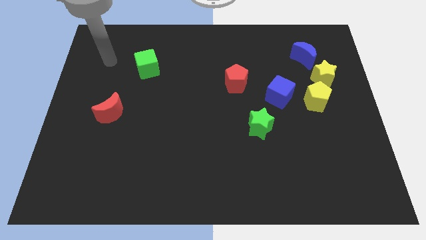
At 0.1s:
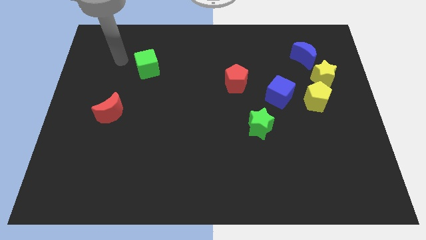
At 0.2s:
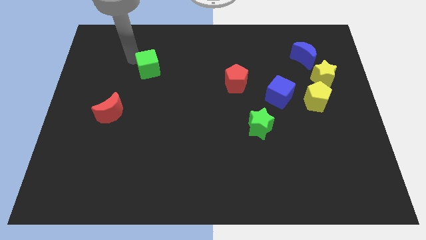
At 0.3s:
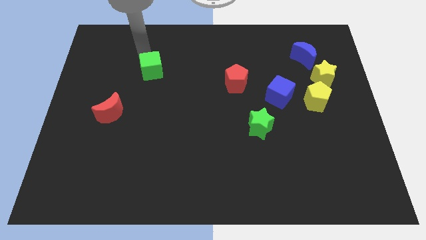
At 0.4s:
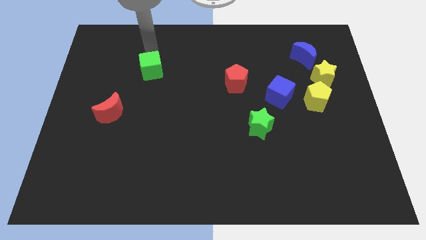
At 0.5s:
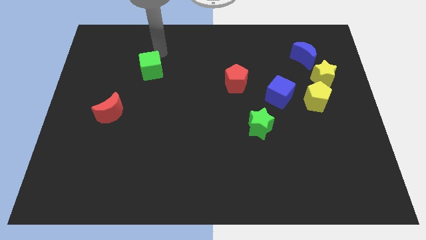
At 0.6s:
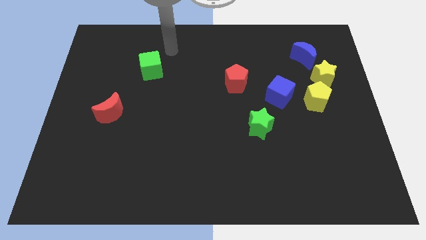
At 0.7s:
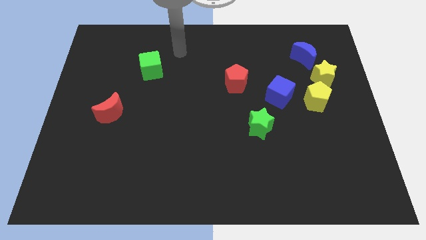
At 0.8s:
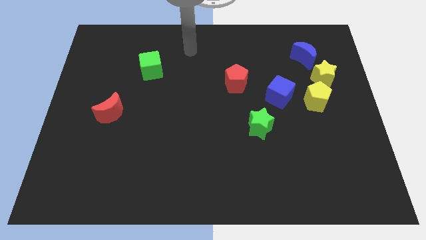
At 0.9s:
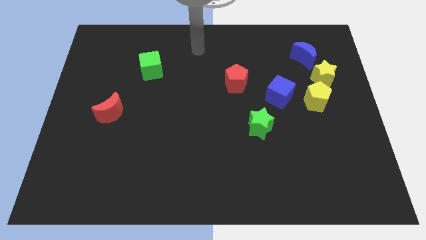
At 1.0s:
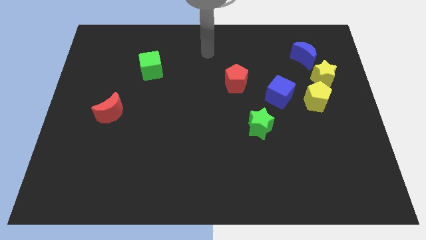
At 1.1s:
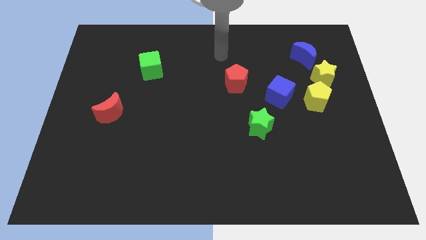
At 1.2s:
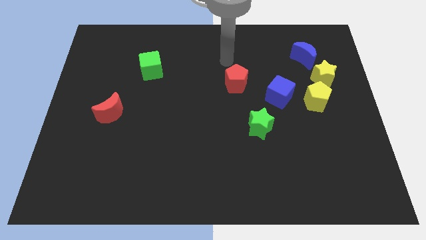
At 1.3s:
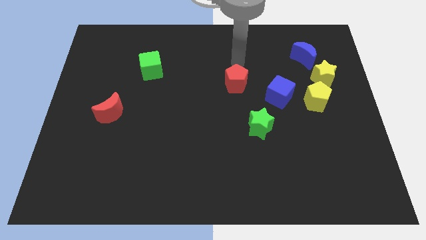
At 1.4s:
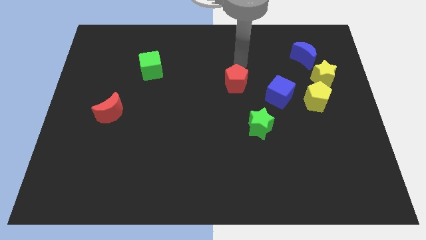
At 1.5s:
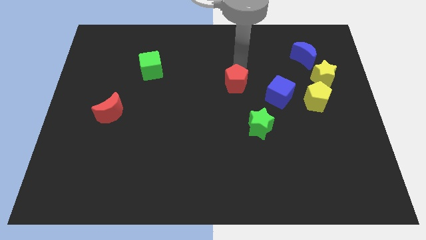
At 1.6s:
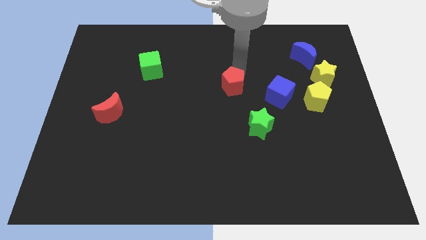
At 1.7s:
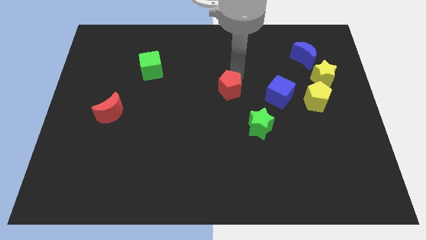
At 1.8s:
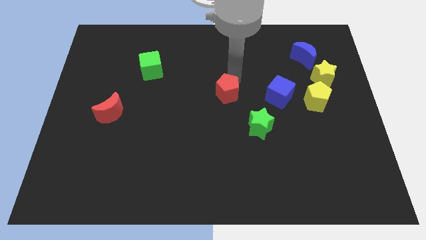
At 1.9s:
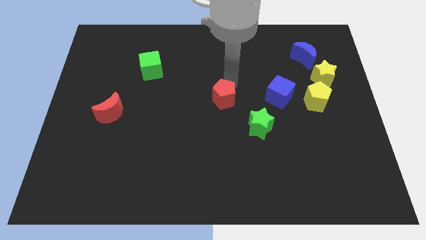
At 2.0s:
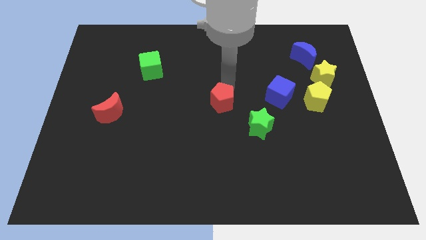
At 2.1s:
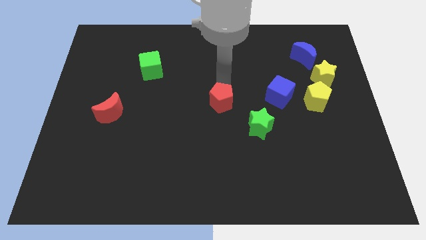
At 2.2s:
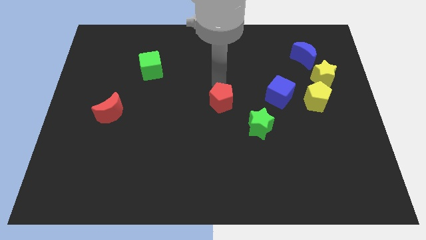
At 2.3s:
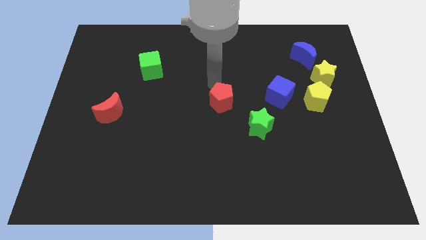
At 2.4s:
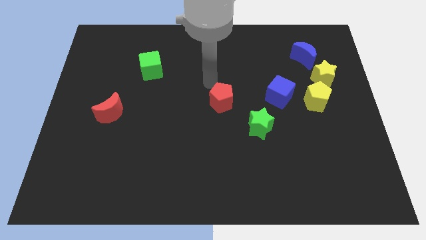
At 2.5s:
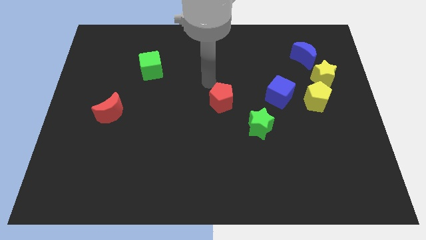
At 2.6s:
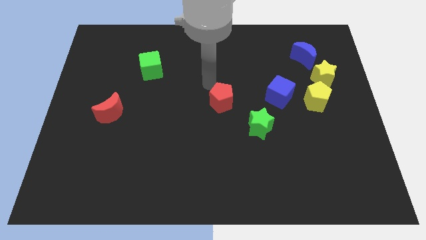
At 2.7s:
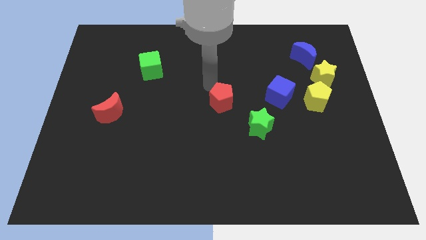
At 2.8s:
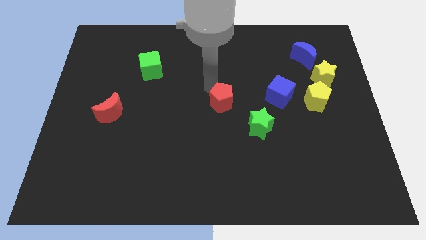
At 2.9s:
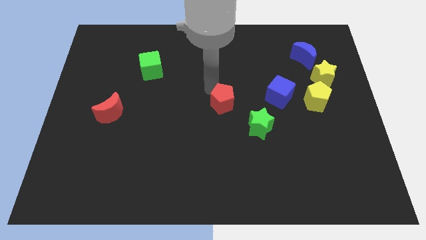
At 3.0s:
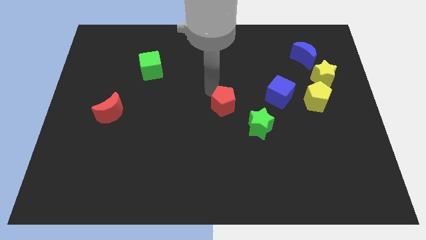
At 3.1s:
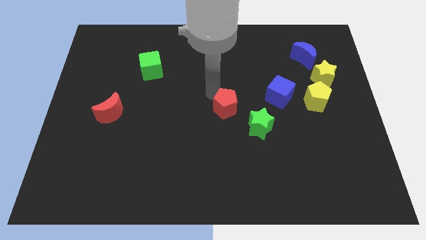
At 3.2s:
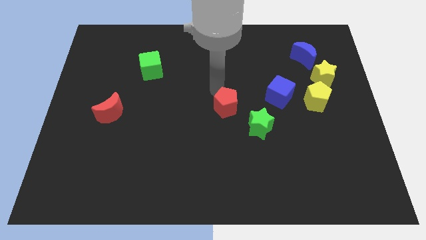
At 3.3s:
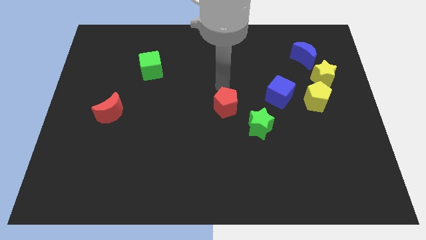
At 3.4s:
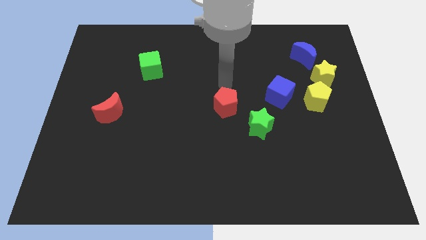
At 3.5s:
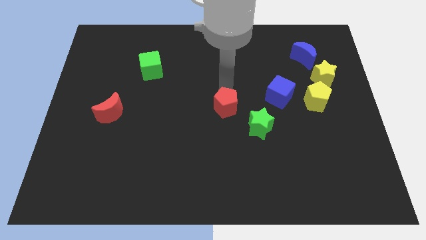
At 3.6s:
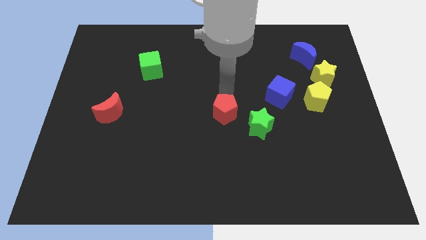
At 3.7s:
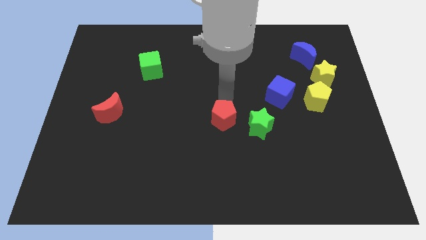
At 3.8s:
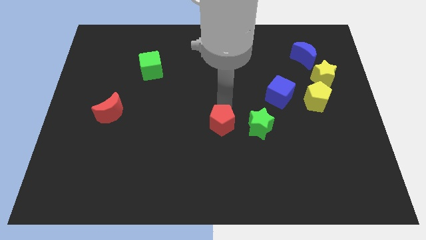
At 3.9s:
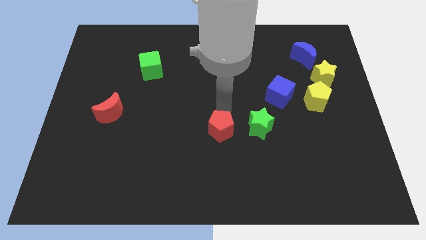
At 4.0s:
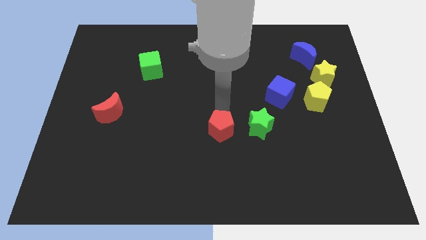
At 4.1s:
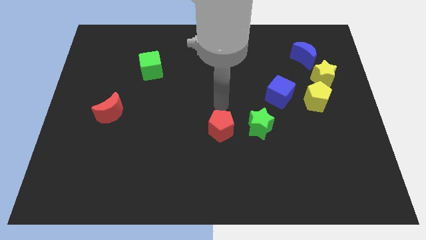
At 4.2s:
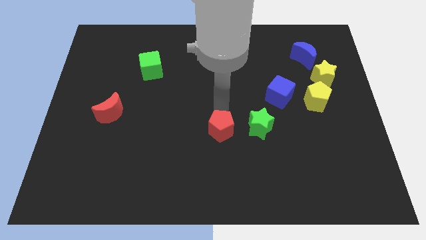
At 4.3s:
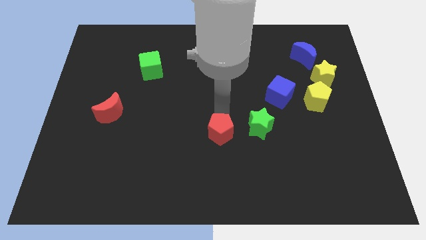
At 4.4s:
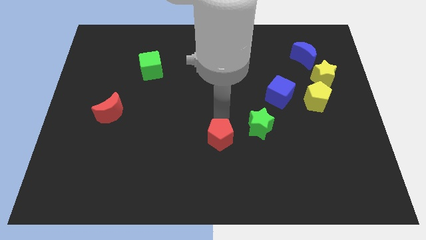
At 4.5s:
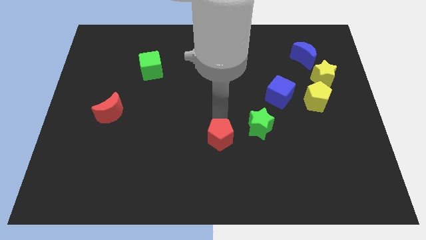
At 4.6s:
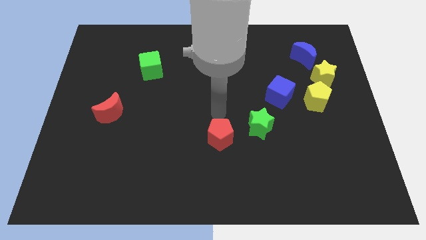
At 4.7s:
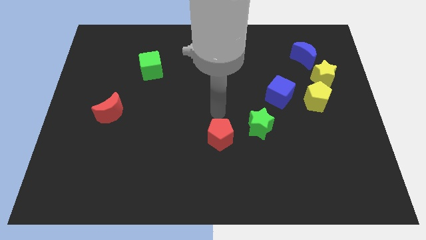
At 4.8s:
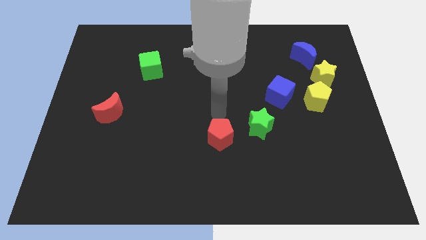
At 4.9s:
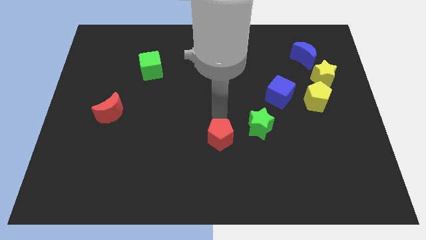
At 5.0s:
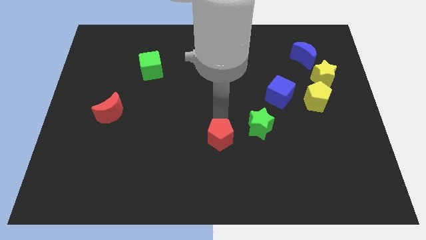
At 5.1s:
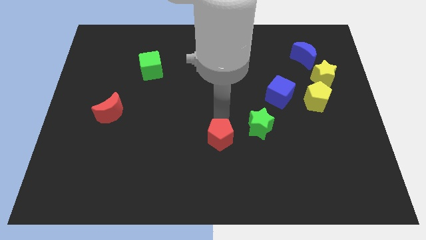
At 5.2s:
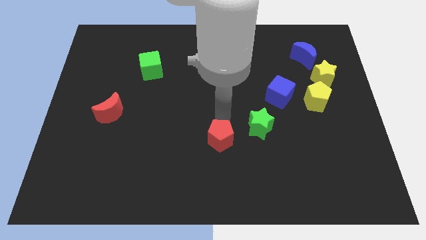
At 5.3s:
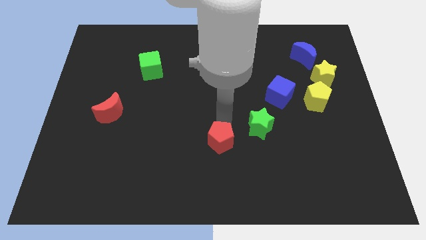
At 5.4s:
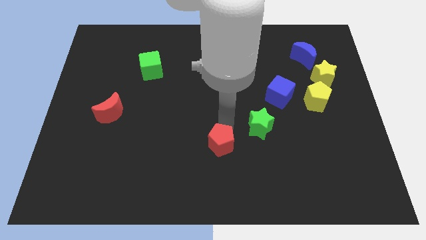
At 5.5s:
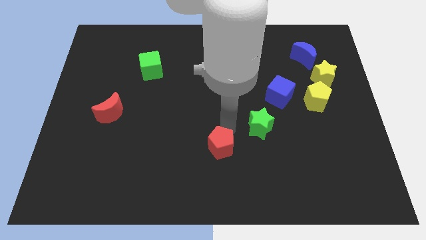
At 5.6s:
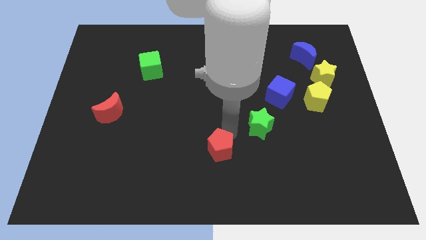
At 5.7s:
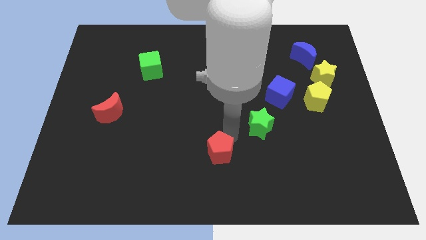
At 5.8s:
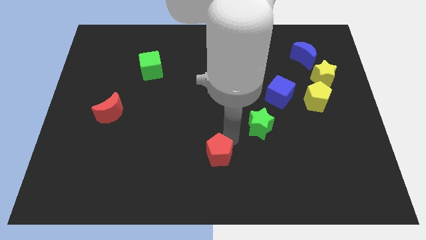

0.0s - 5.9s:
put the red pentagon to the bottom

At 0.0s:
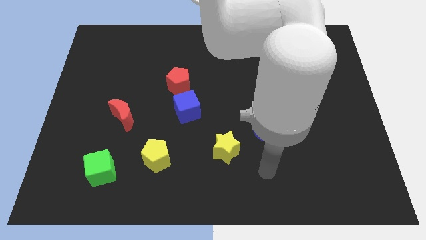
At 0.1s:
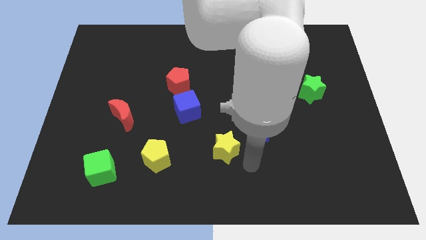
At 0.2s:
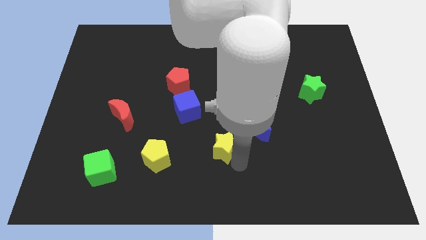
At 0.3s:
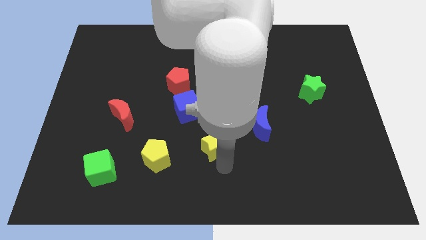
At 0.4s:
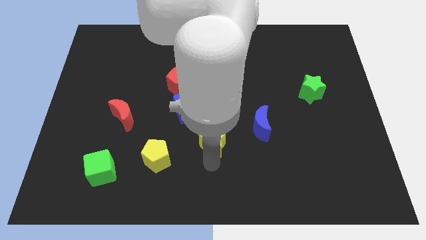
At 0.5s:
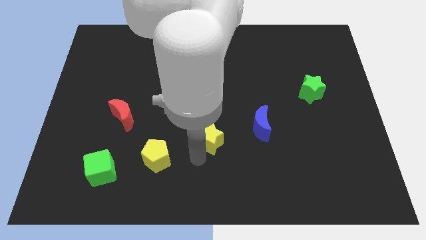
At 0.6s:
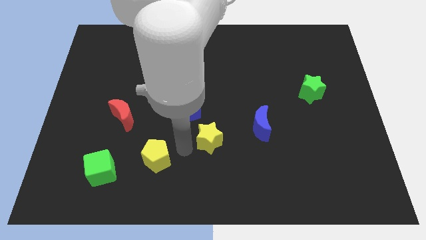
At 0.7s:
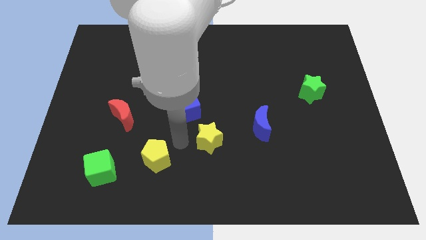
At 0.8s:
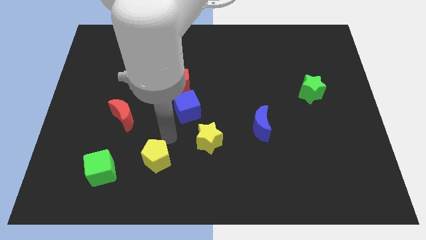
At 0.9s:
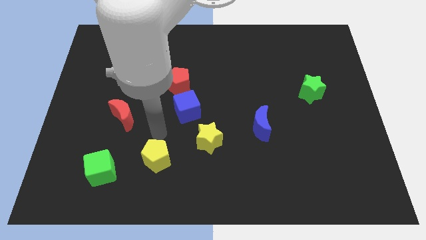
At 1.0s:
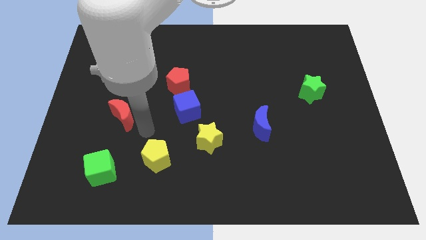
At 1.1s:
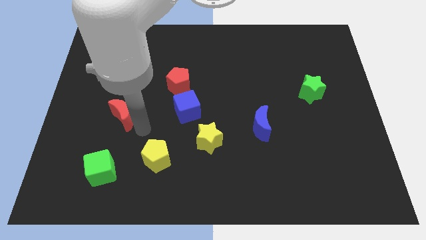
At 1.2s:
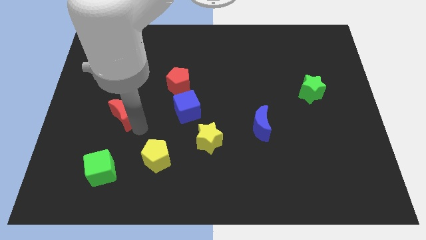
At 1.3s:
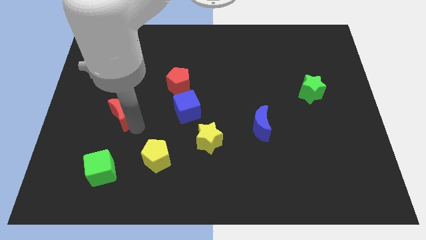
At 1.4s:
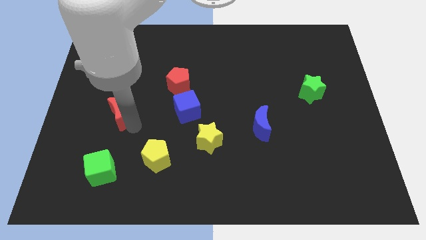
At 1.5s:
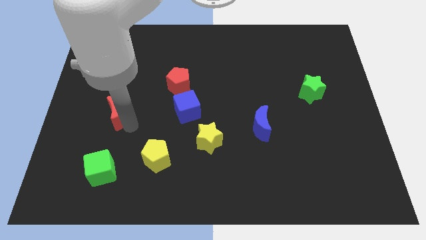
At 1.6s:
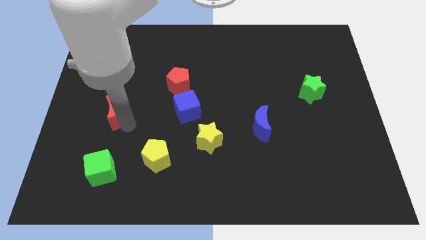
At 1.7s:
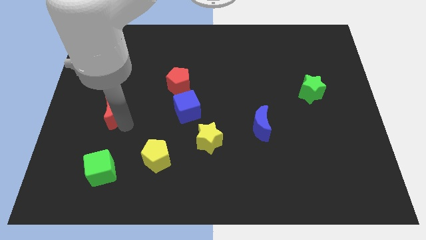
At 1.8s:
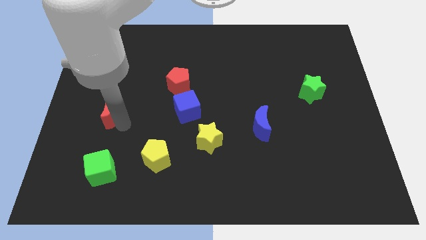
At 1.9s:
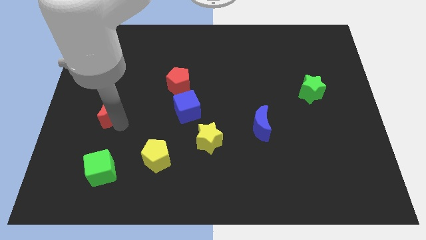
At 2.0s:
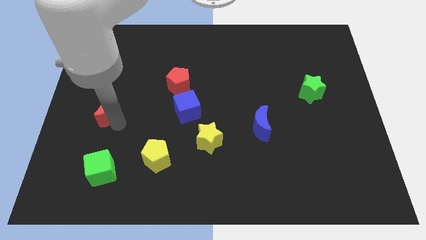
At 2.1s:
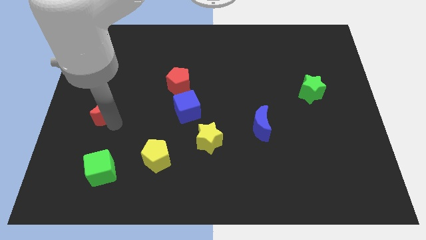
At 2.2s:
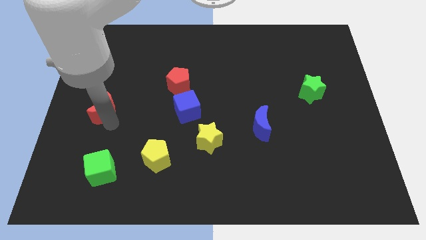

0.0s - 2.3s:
push the red moon to the left side of the board
